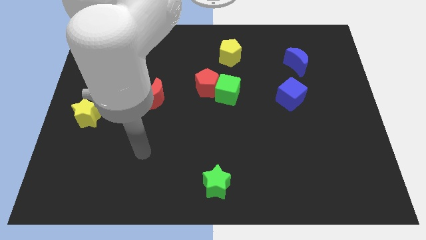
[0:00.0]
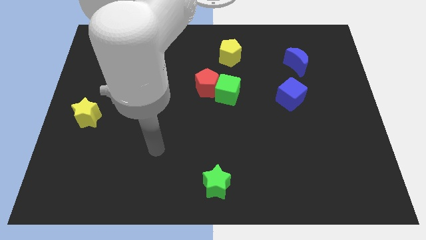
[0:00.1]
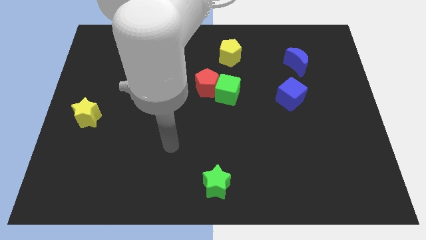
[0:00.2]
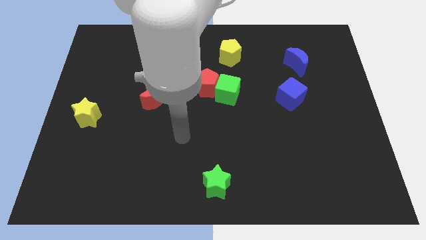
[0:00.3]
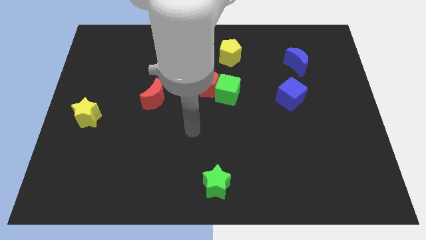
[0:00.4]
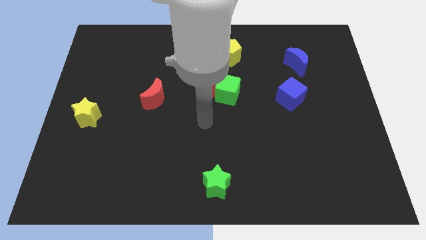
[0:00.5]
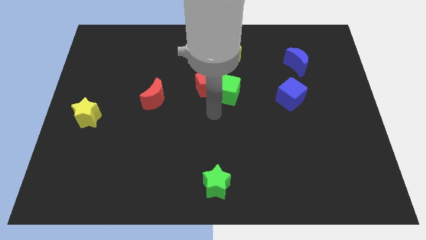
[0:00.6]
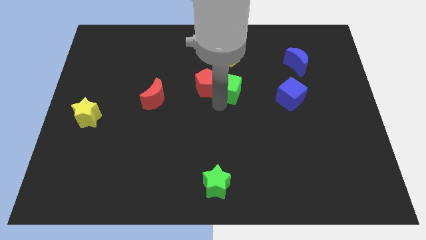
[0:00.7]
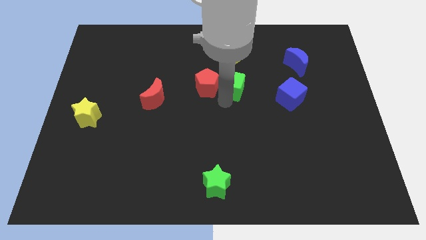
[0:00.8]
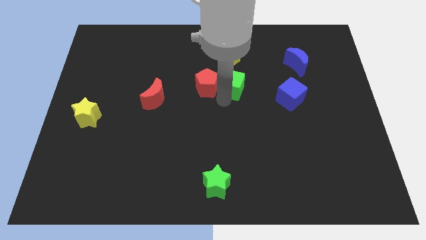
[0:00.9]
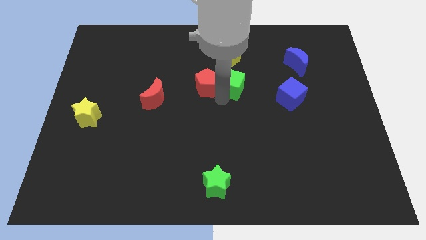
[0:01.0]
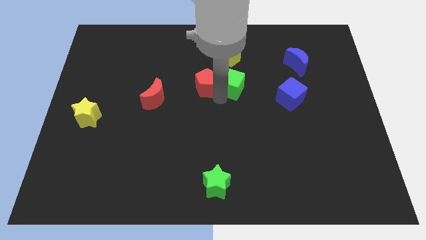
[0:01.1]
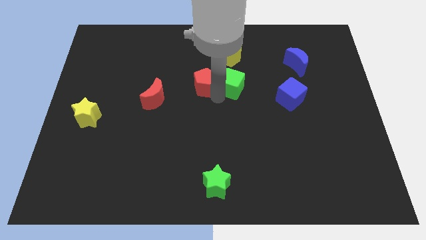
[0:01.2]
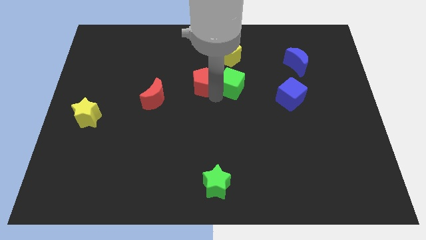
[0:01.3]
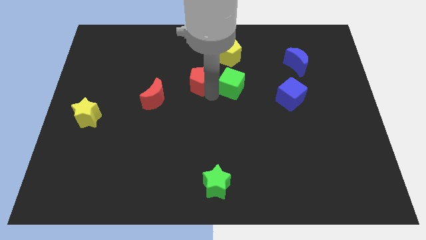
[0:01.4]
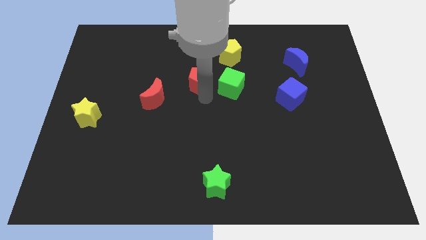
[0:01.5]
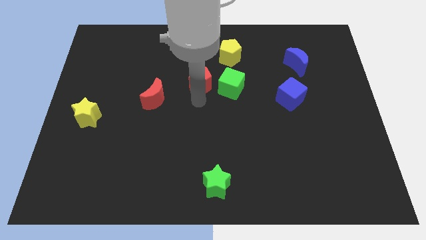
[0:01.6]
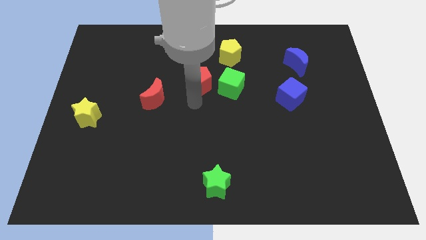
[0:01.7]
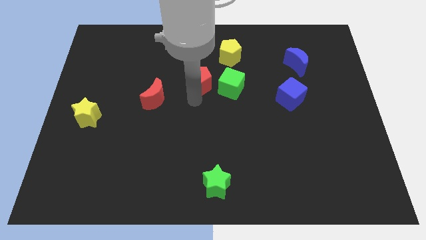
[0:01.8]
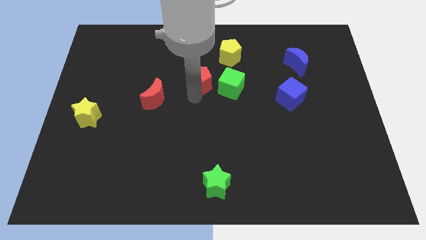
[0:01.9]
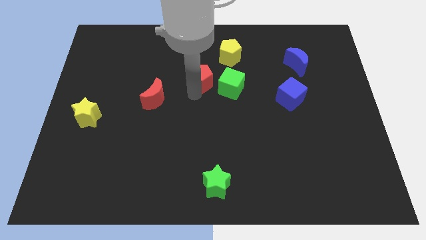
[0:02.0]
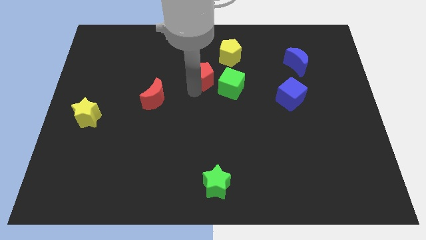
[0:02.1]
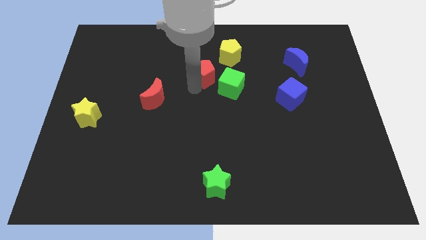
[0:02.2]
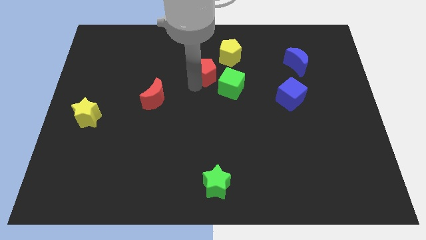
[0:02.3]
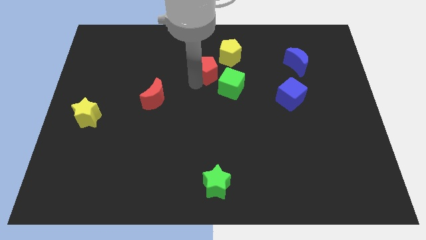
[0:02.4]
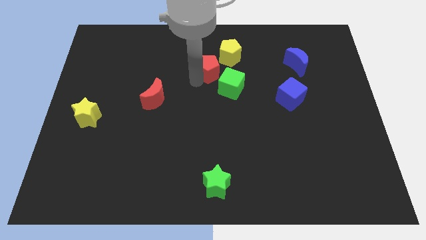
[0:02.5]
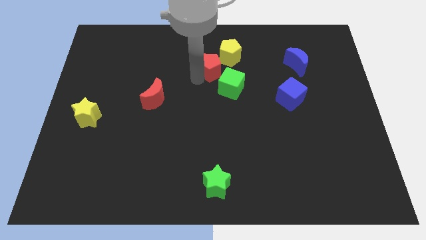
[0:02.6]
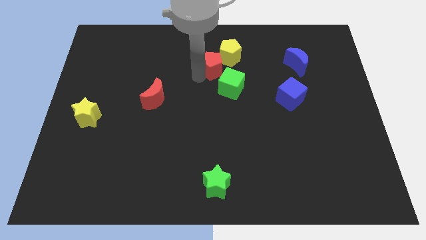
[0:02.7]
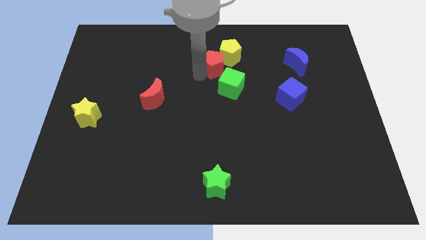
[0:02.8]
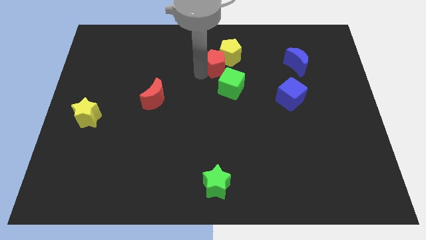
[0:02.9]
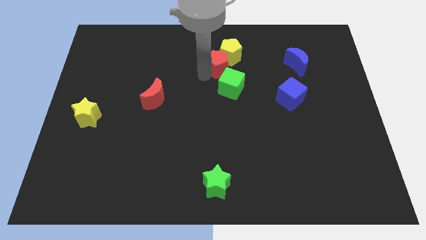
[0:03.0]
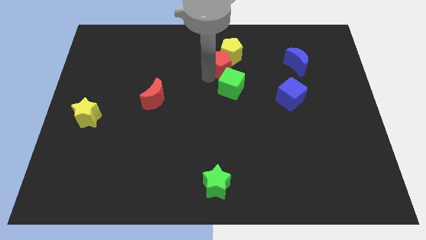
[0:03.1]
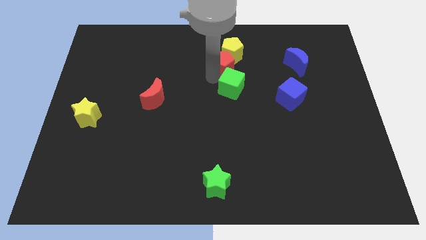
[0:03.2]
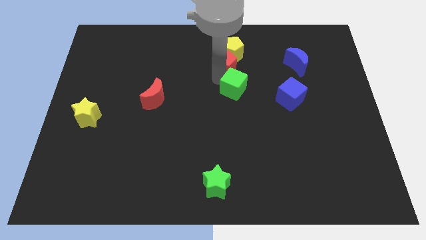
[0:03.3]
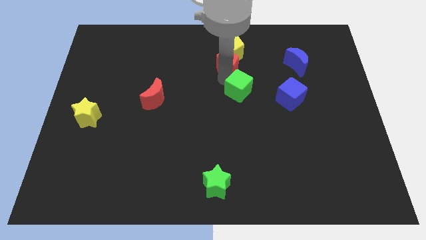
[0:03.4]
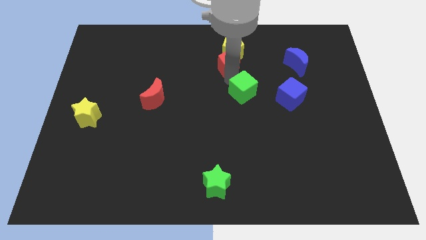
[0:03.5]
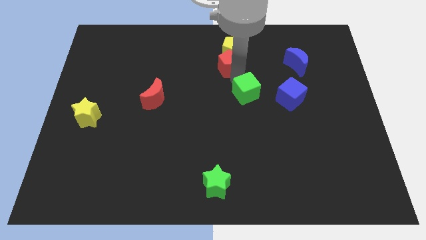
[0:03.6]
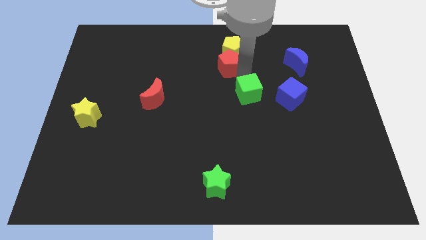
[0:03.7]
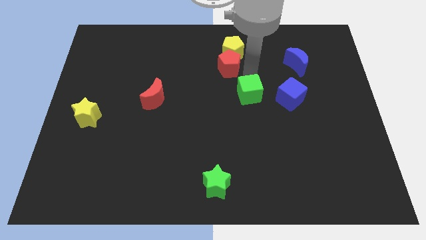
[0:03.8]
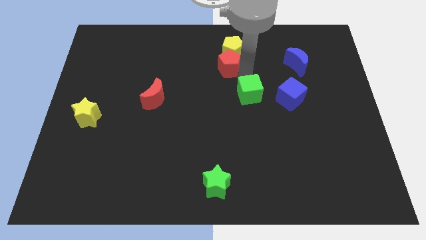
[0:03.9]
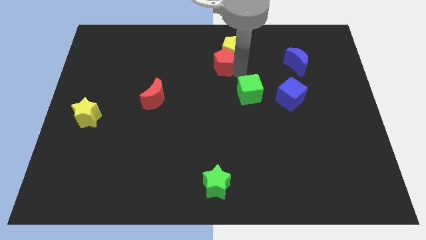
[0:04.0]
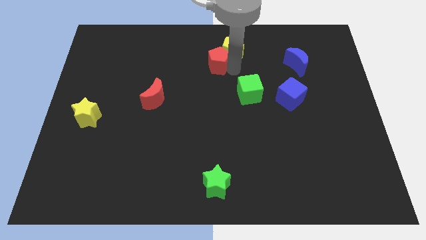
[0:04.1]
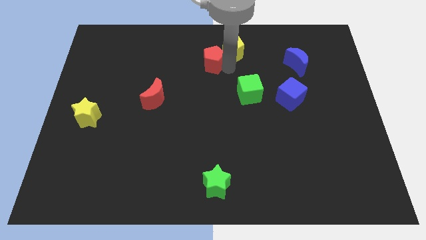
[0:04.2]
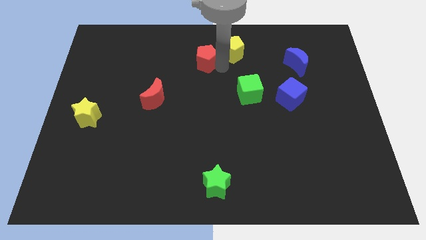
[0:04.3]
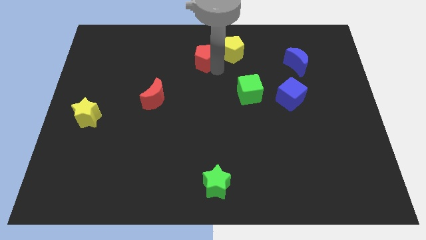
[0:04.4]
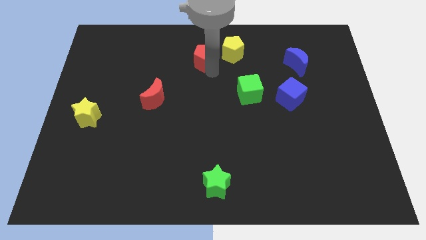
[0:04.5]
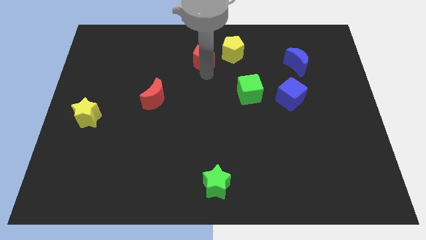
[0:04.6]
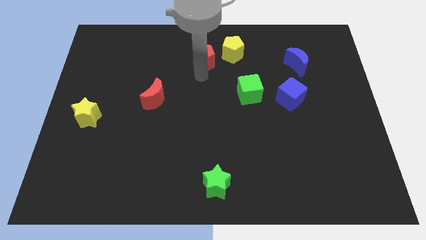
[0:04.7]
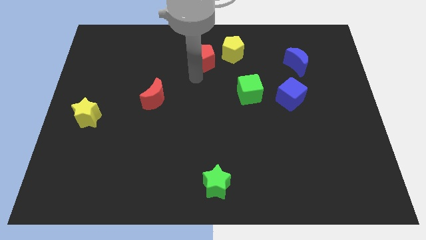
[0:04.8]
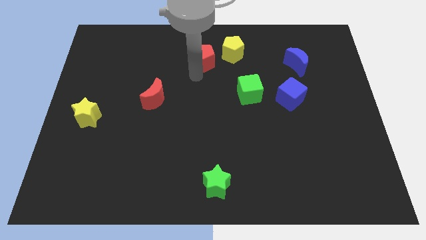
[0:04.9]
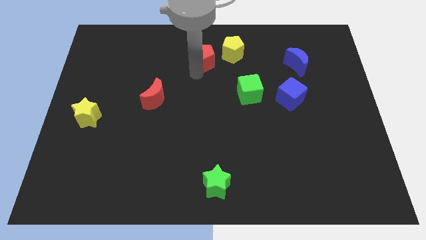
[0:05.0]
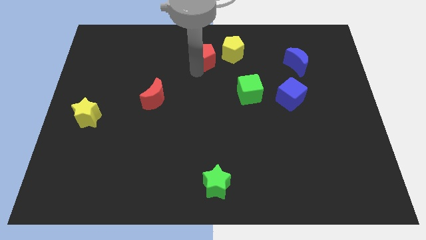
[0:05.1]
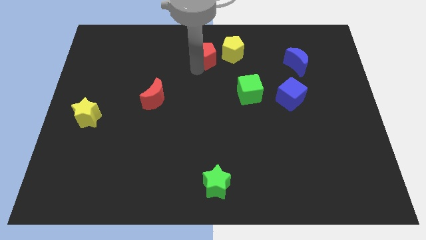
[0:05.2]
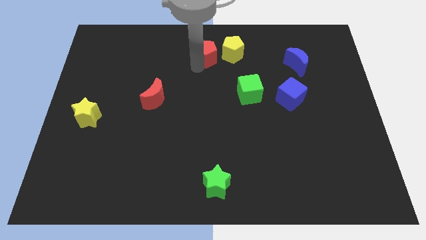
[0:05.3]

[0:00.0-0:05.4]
slide the red pentagon to the towards your base
